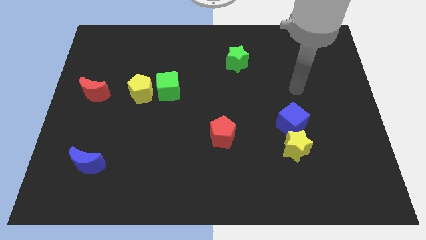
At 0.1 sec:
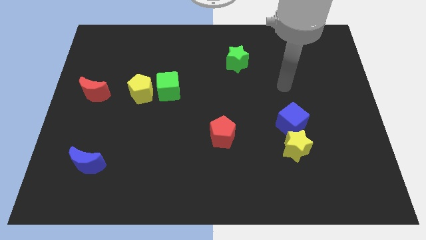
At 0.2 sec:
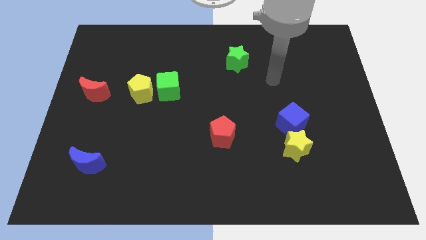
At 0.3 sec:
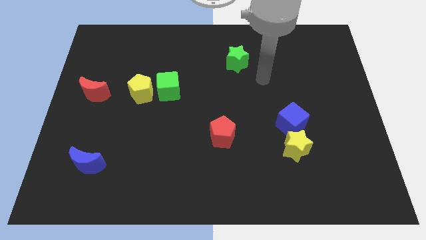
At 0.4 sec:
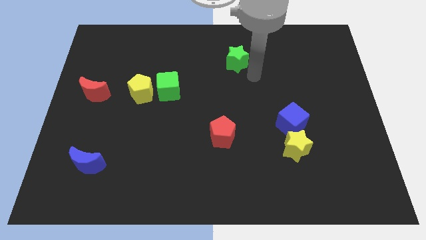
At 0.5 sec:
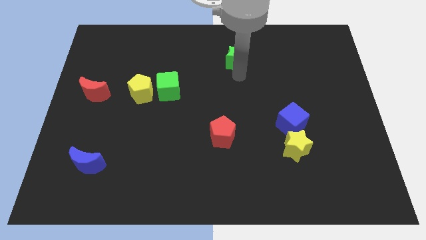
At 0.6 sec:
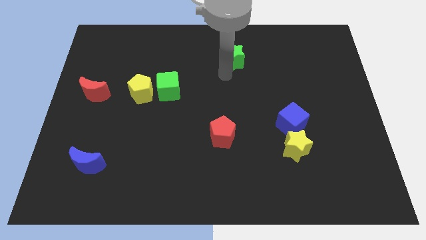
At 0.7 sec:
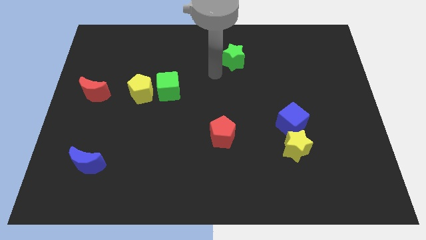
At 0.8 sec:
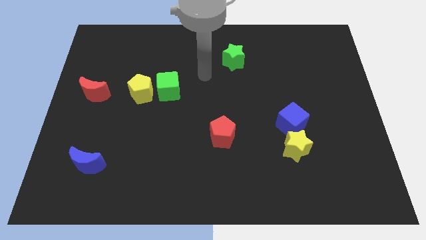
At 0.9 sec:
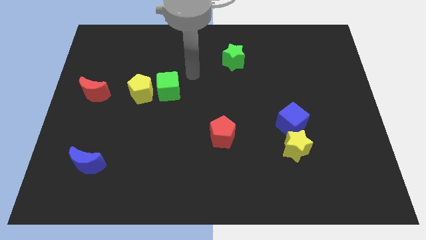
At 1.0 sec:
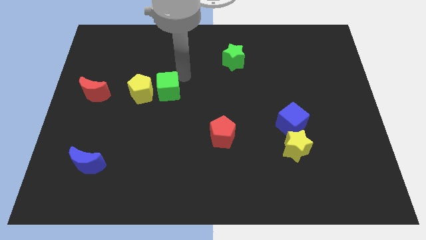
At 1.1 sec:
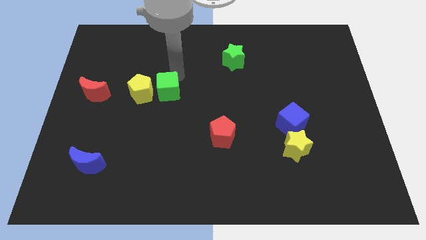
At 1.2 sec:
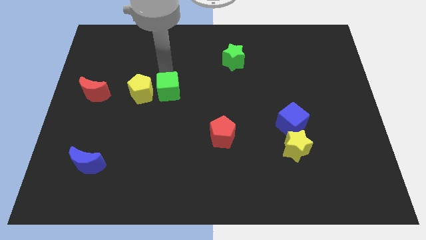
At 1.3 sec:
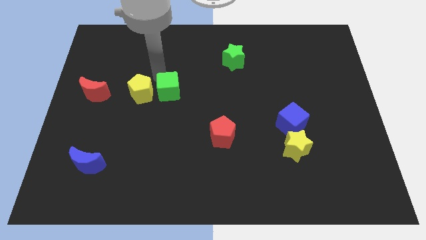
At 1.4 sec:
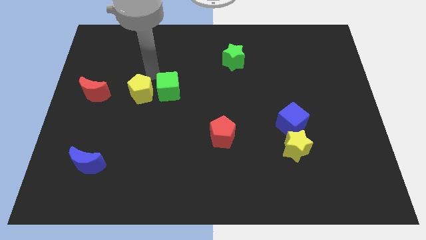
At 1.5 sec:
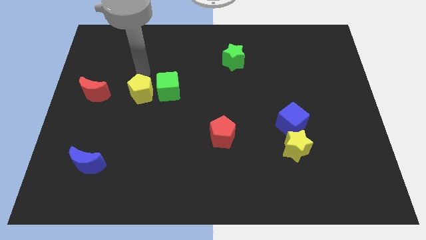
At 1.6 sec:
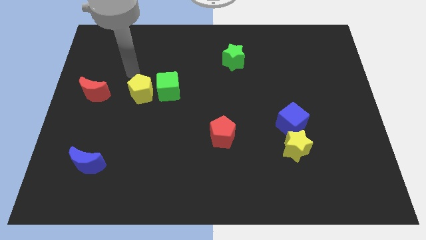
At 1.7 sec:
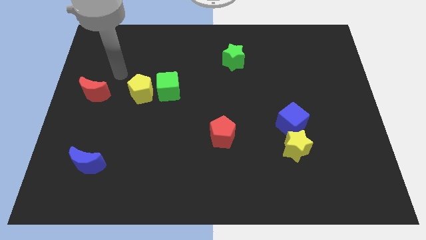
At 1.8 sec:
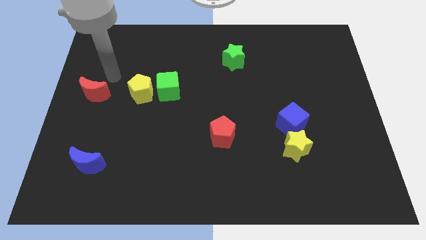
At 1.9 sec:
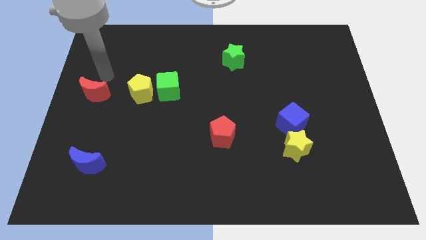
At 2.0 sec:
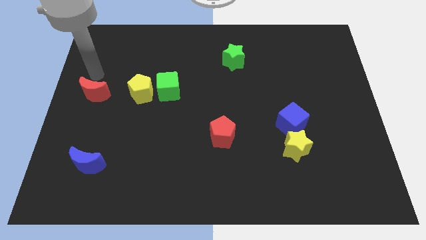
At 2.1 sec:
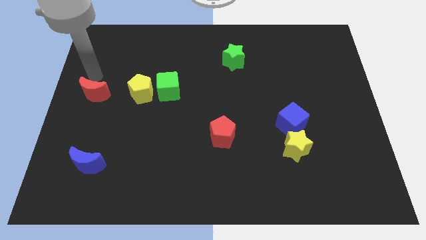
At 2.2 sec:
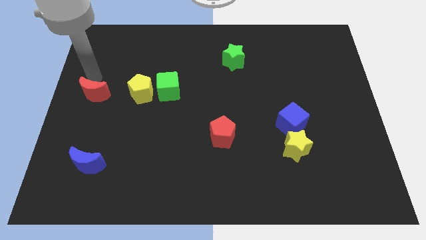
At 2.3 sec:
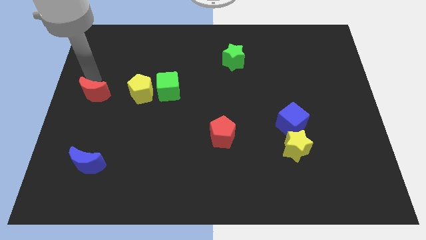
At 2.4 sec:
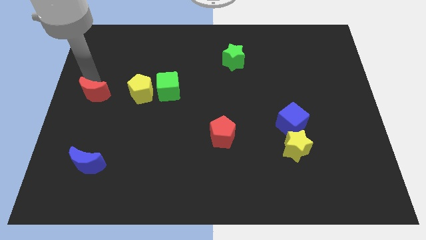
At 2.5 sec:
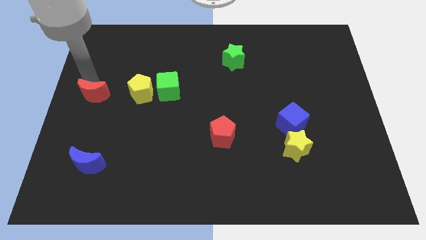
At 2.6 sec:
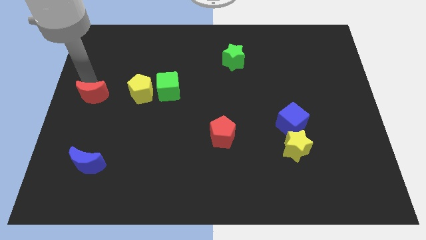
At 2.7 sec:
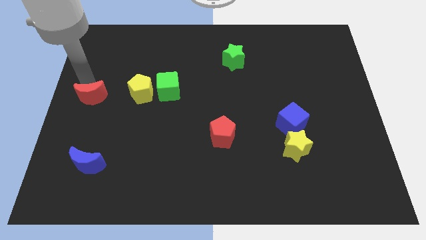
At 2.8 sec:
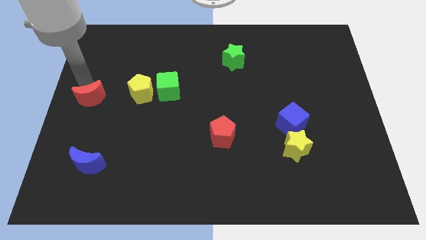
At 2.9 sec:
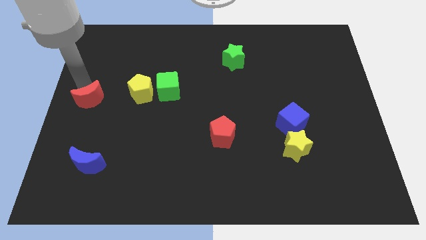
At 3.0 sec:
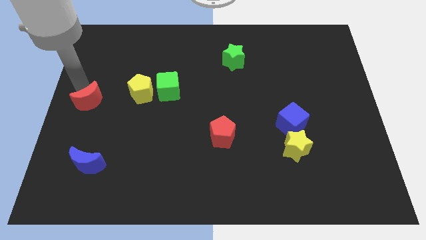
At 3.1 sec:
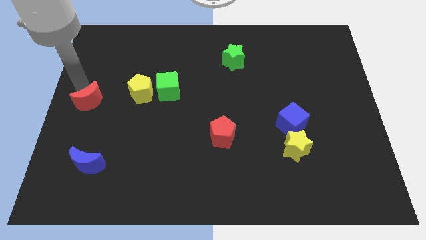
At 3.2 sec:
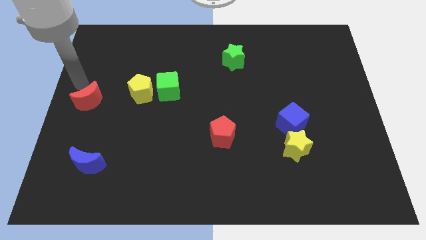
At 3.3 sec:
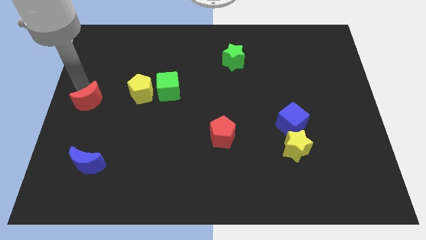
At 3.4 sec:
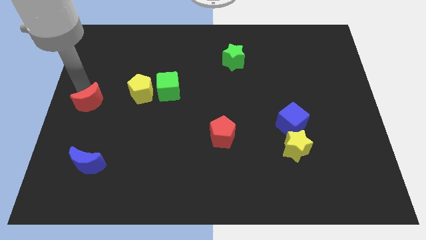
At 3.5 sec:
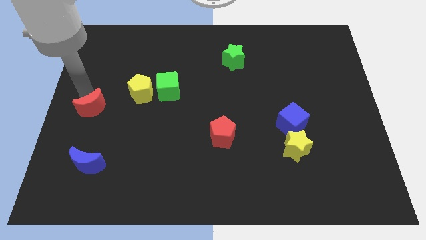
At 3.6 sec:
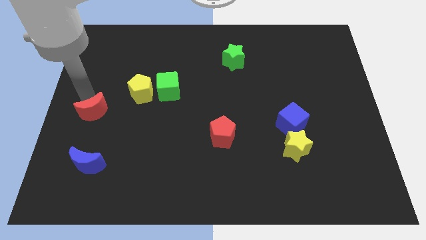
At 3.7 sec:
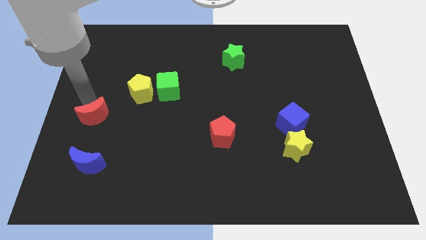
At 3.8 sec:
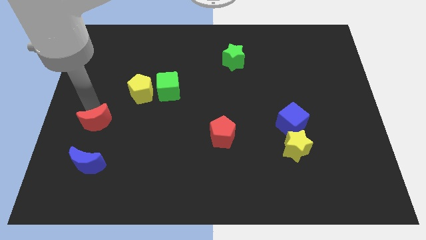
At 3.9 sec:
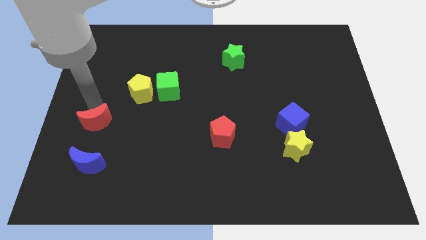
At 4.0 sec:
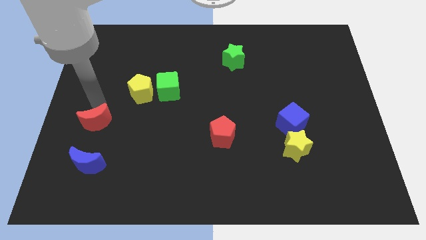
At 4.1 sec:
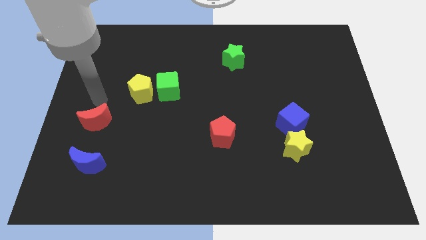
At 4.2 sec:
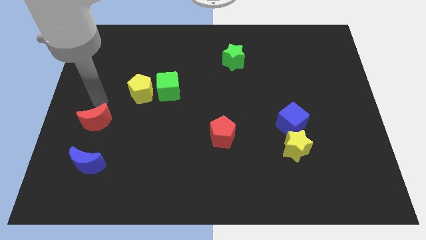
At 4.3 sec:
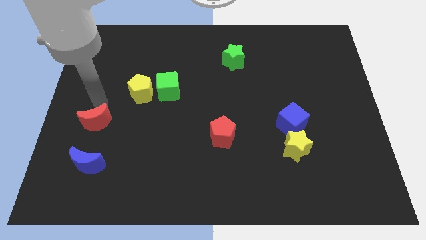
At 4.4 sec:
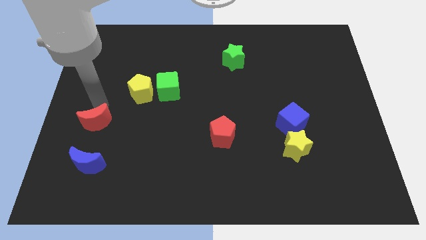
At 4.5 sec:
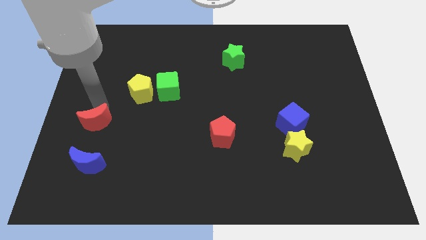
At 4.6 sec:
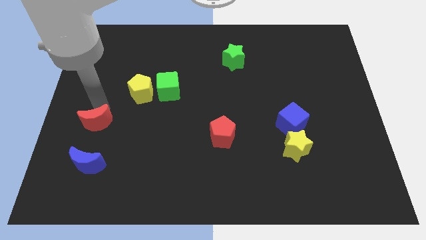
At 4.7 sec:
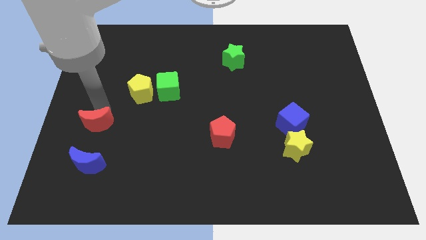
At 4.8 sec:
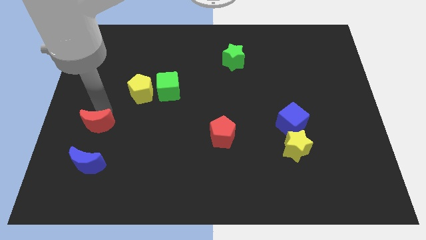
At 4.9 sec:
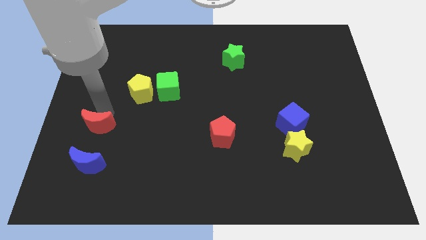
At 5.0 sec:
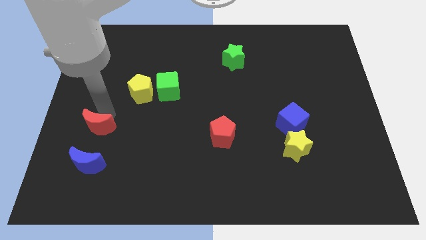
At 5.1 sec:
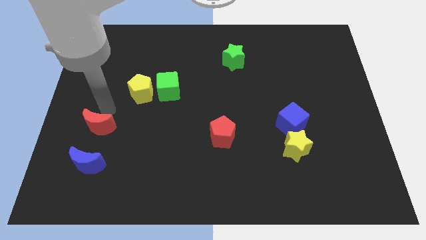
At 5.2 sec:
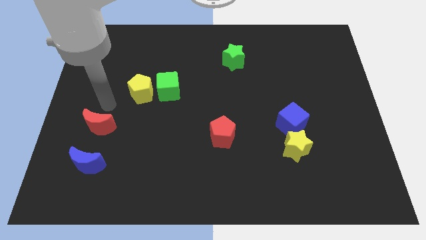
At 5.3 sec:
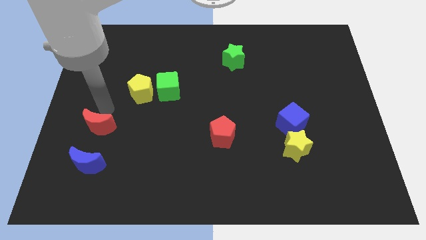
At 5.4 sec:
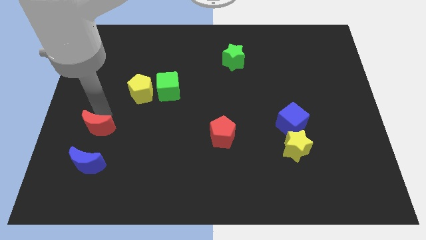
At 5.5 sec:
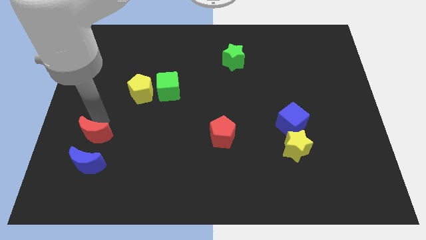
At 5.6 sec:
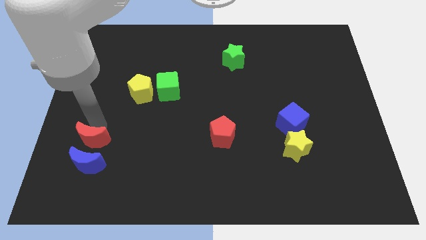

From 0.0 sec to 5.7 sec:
slide the red moon close to the blue moon

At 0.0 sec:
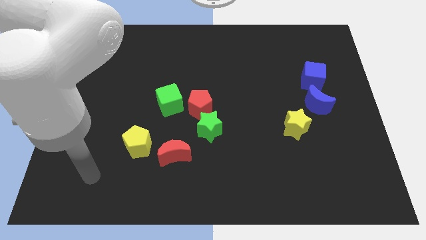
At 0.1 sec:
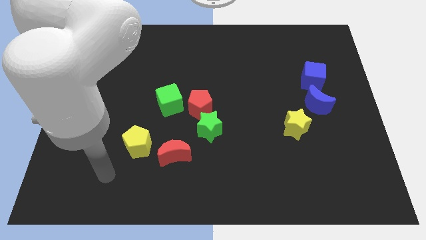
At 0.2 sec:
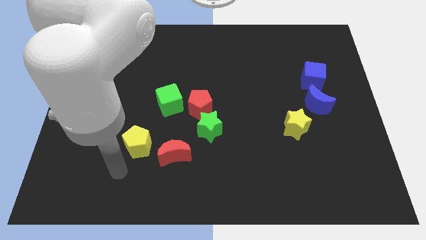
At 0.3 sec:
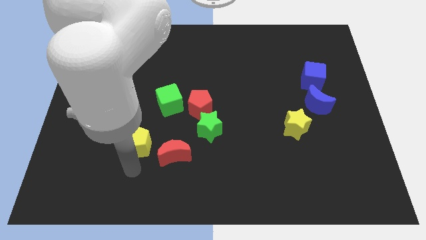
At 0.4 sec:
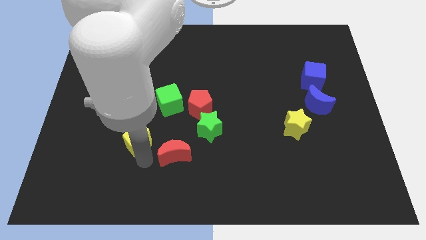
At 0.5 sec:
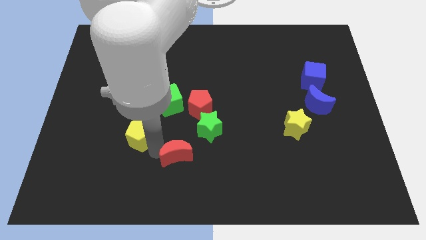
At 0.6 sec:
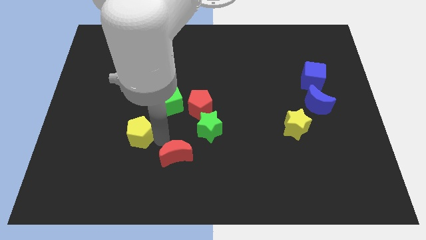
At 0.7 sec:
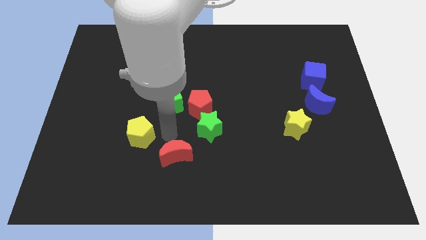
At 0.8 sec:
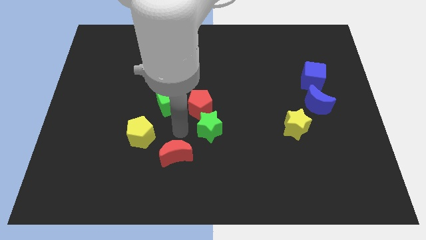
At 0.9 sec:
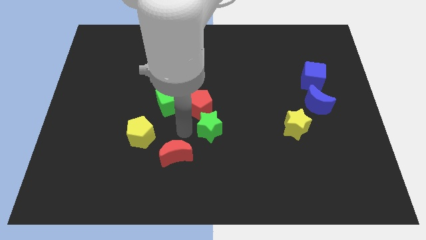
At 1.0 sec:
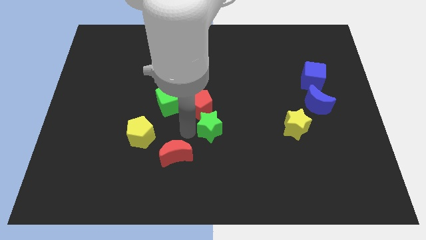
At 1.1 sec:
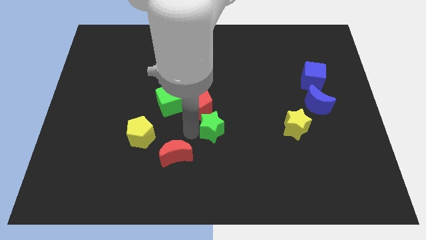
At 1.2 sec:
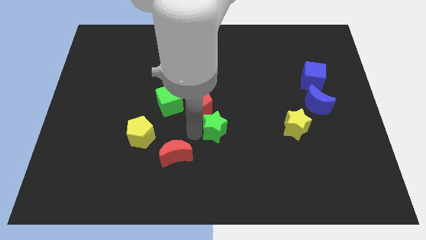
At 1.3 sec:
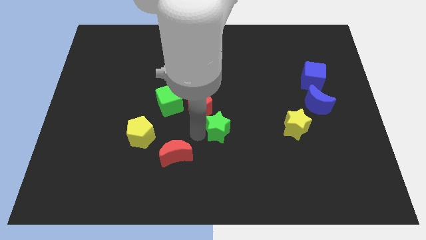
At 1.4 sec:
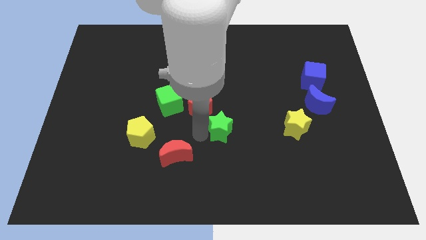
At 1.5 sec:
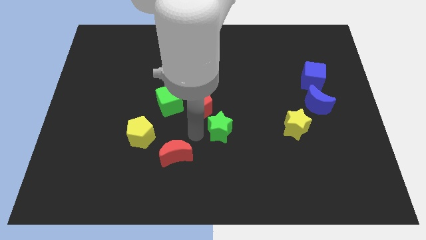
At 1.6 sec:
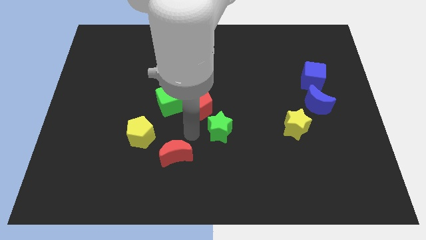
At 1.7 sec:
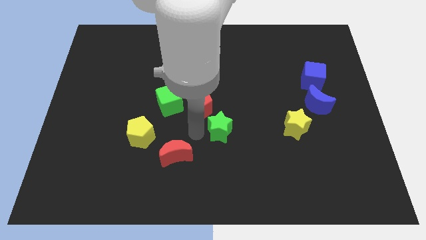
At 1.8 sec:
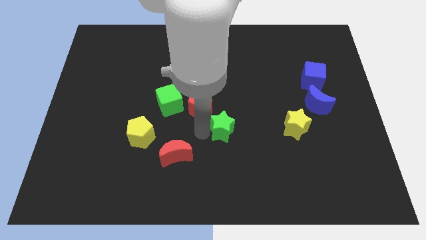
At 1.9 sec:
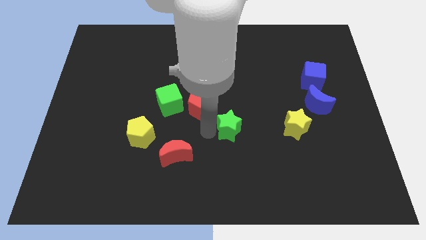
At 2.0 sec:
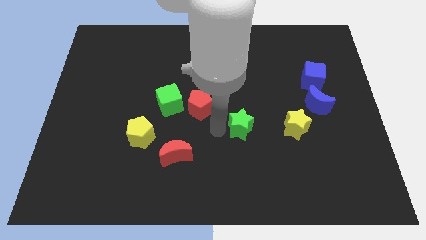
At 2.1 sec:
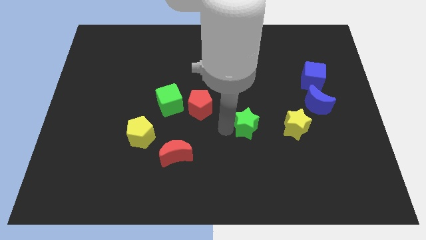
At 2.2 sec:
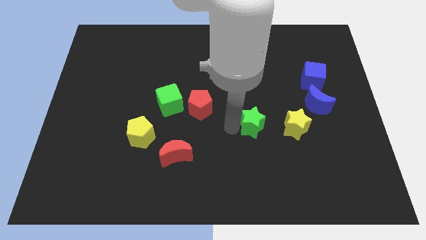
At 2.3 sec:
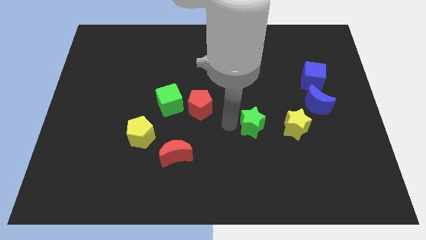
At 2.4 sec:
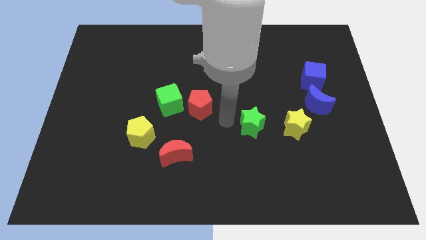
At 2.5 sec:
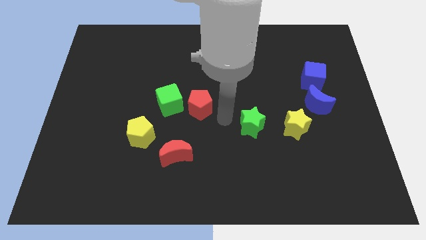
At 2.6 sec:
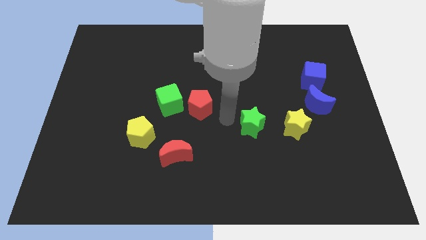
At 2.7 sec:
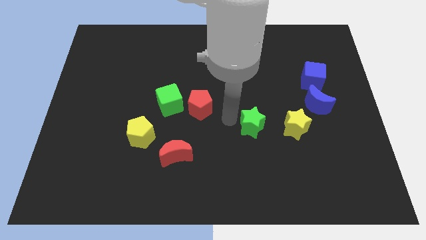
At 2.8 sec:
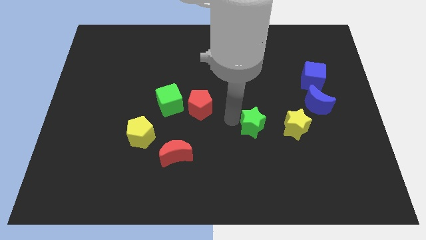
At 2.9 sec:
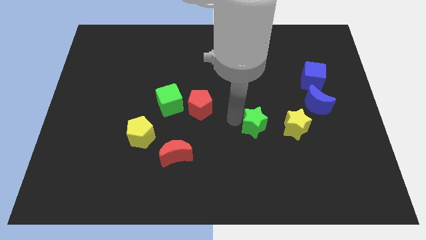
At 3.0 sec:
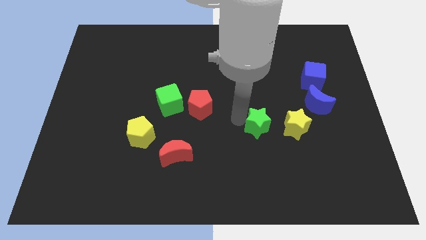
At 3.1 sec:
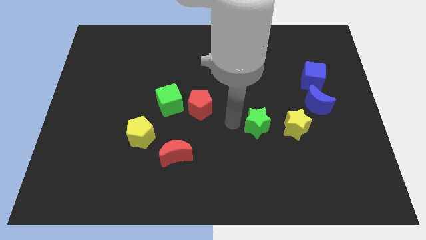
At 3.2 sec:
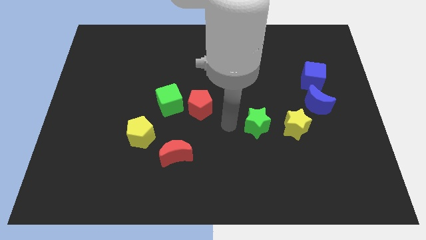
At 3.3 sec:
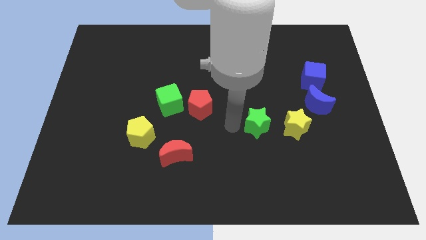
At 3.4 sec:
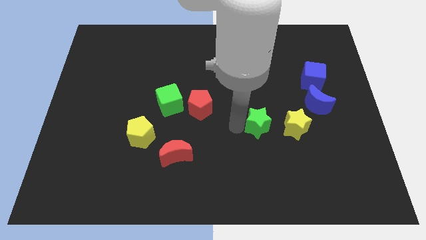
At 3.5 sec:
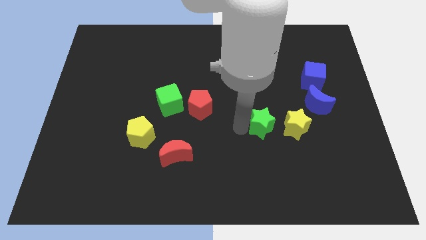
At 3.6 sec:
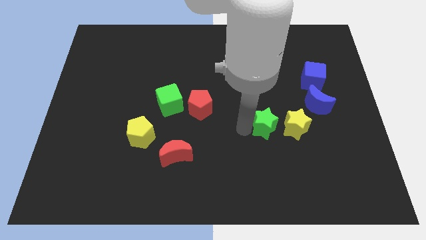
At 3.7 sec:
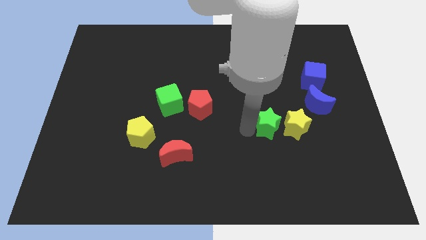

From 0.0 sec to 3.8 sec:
slide the green star to the yellow star
